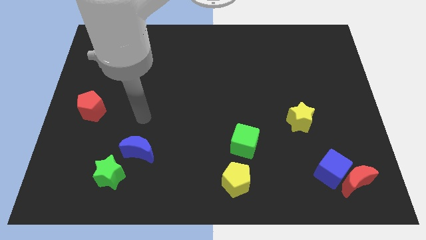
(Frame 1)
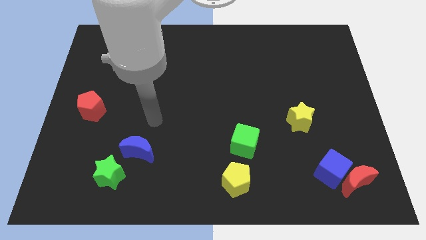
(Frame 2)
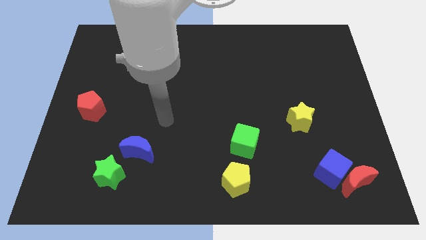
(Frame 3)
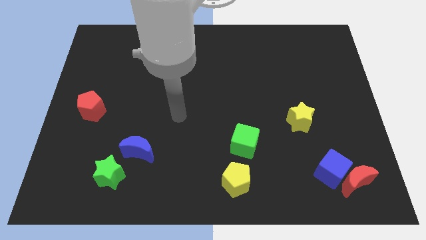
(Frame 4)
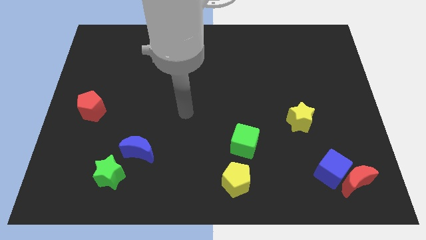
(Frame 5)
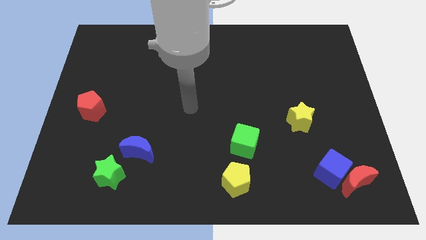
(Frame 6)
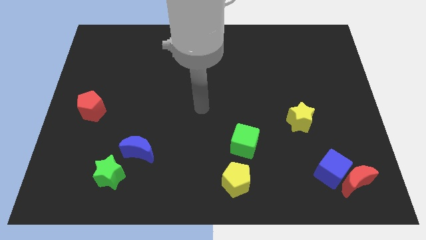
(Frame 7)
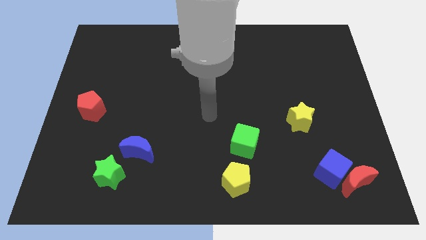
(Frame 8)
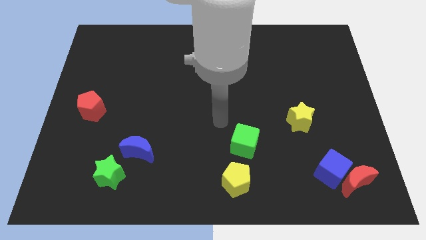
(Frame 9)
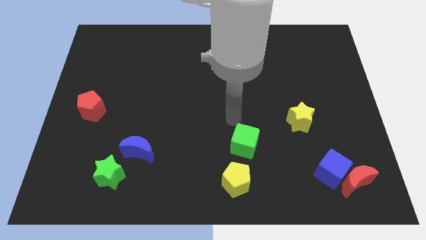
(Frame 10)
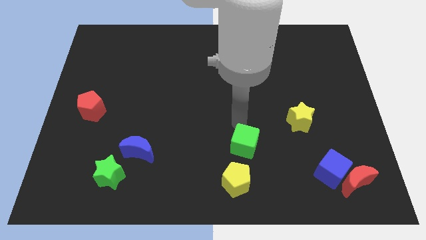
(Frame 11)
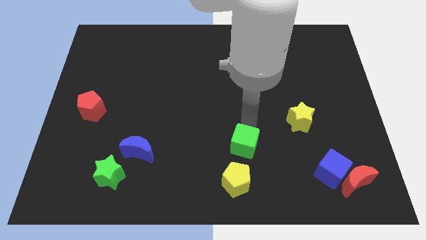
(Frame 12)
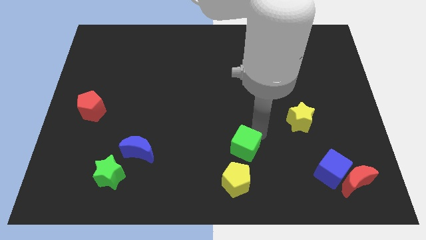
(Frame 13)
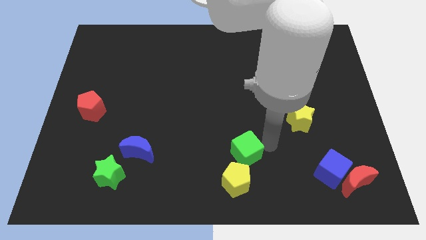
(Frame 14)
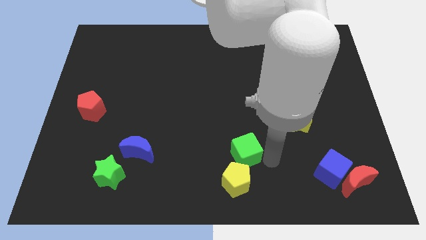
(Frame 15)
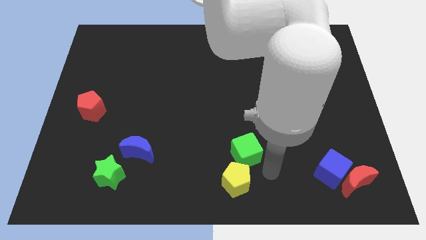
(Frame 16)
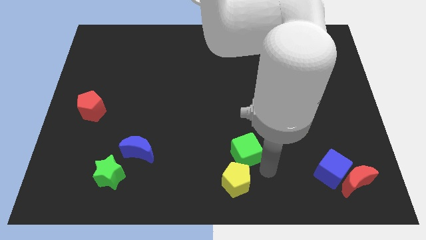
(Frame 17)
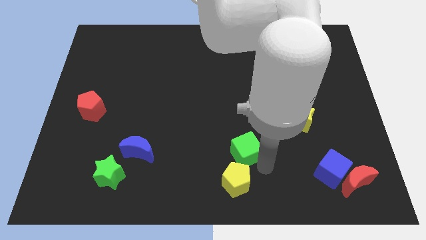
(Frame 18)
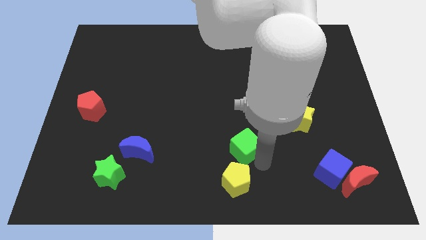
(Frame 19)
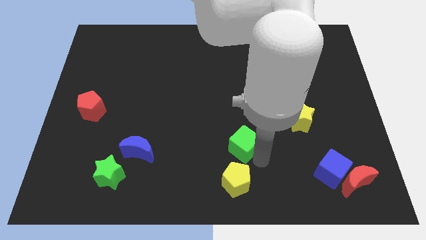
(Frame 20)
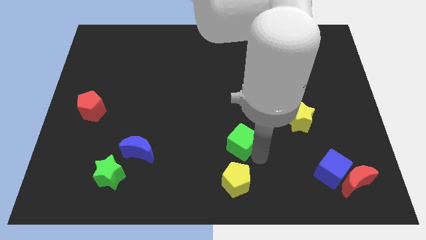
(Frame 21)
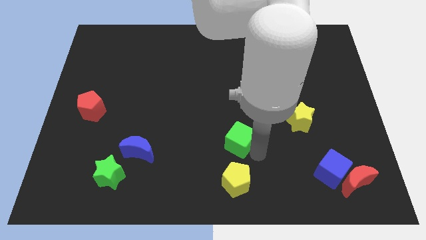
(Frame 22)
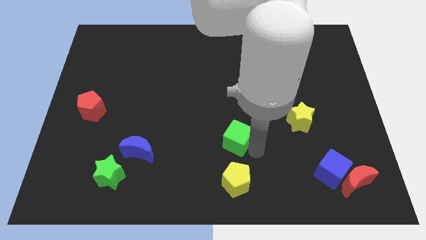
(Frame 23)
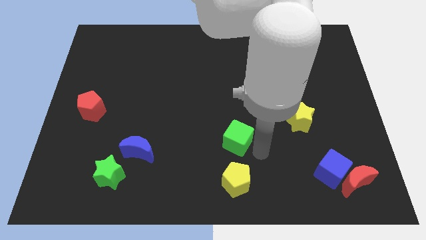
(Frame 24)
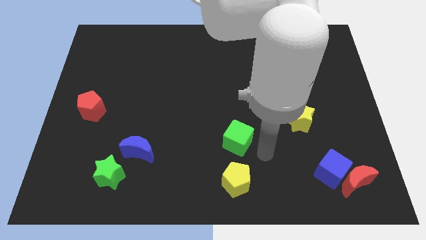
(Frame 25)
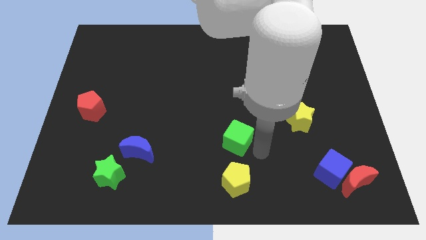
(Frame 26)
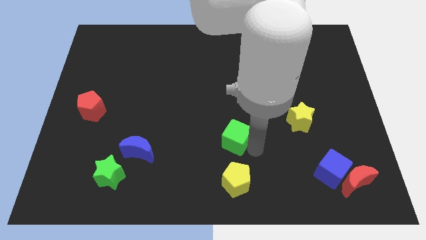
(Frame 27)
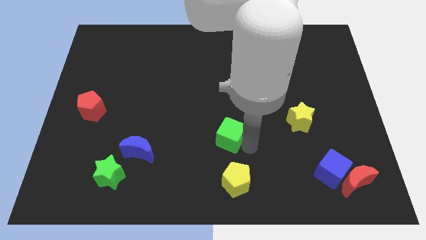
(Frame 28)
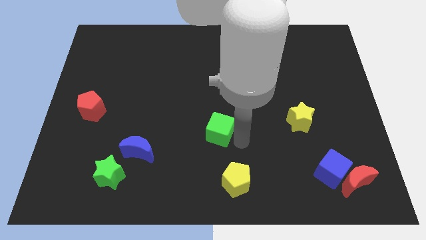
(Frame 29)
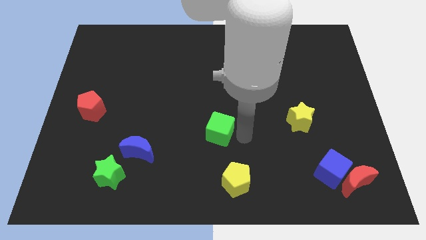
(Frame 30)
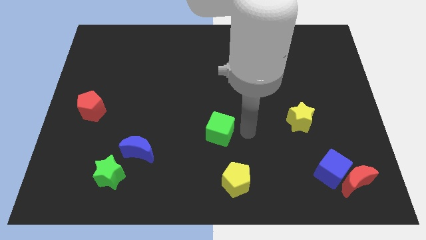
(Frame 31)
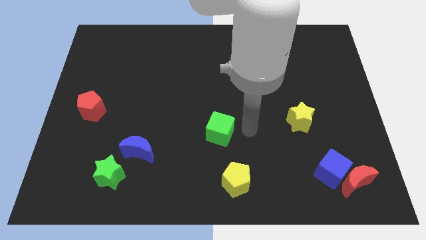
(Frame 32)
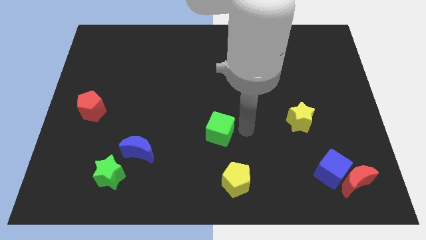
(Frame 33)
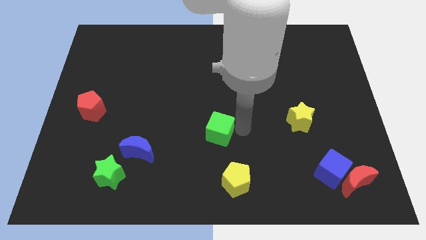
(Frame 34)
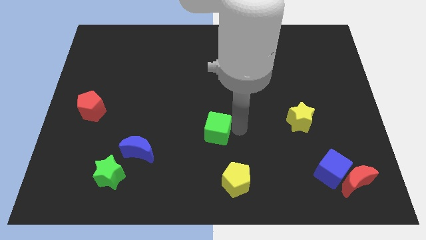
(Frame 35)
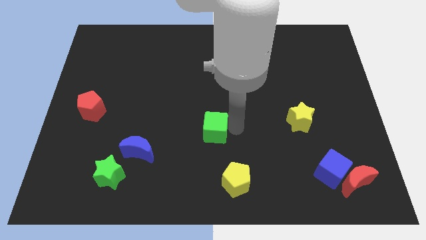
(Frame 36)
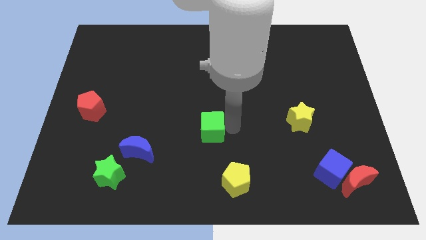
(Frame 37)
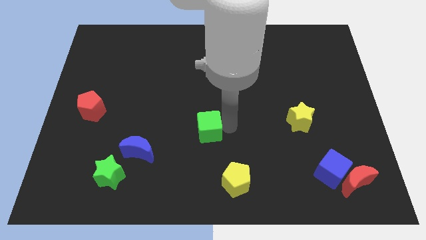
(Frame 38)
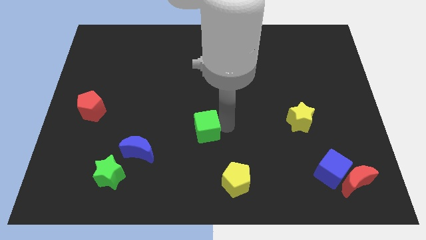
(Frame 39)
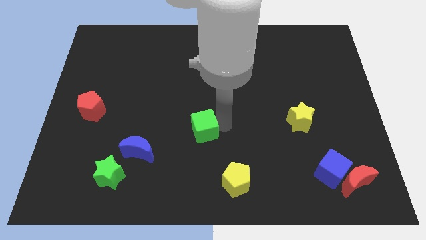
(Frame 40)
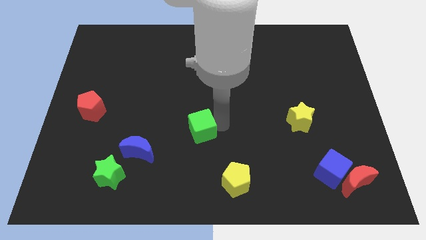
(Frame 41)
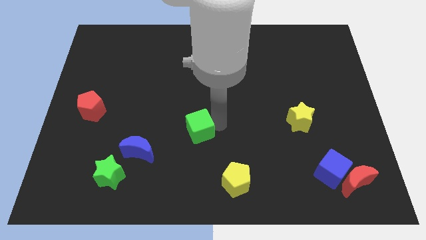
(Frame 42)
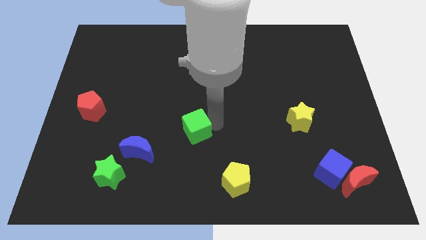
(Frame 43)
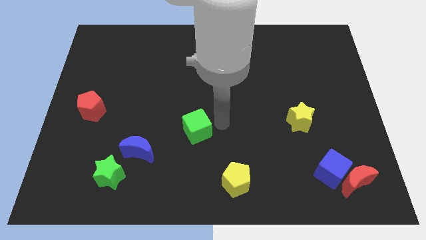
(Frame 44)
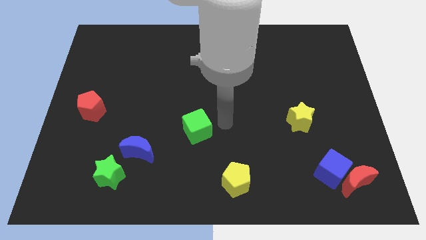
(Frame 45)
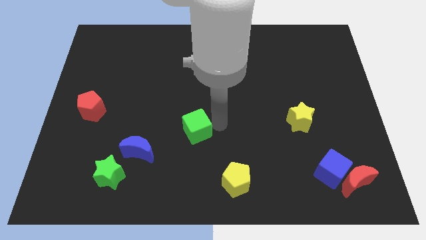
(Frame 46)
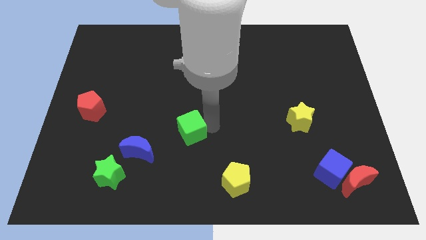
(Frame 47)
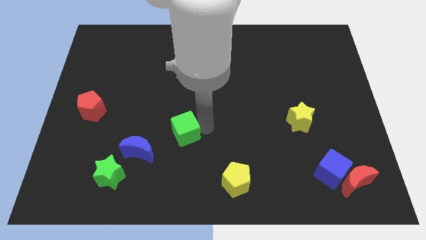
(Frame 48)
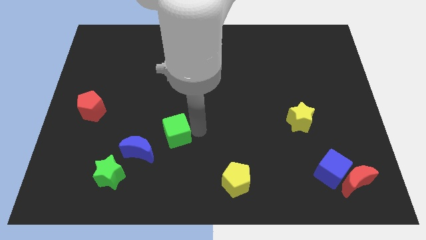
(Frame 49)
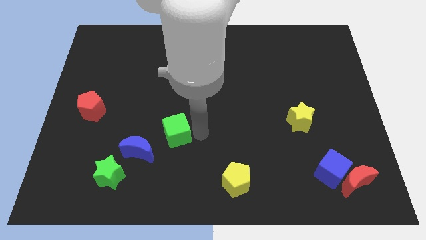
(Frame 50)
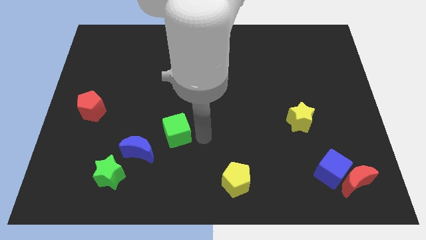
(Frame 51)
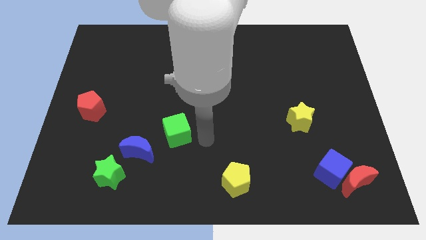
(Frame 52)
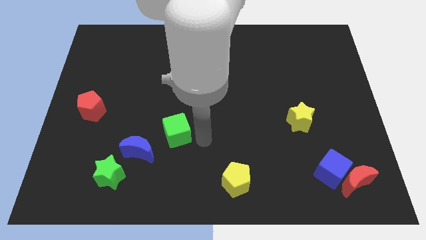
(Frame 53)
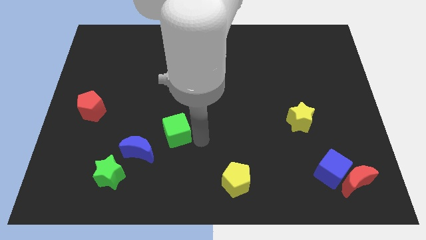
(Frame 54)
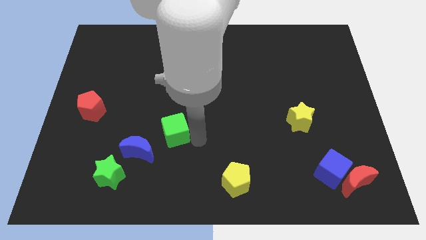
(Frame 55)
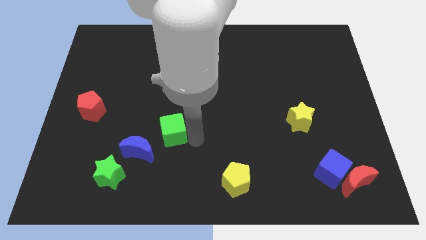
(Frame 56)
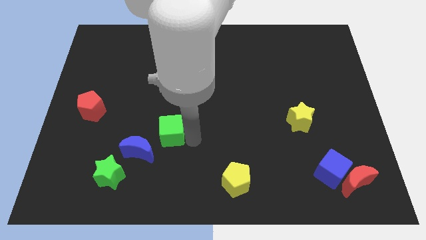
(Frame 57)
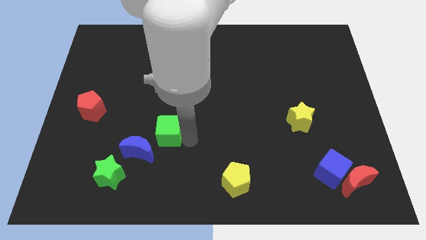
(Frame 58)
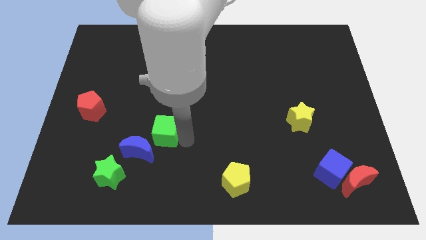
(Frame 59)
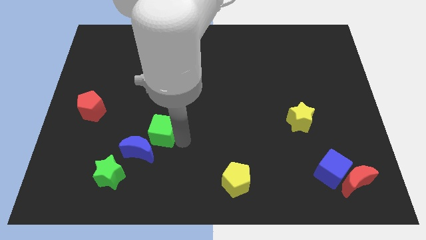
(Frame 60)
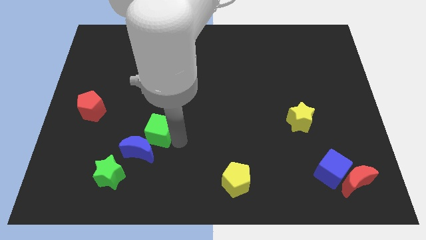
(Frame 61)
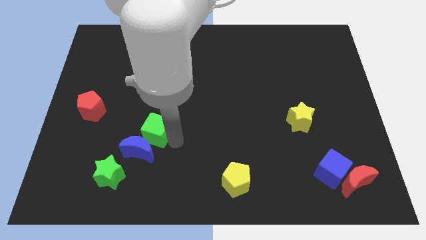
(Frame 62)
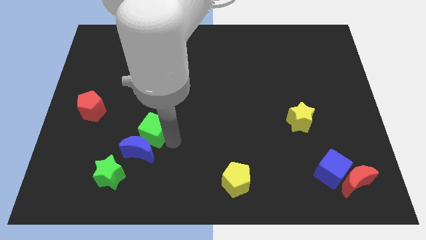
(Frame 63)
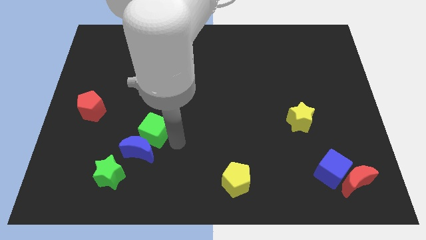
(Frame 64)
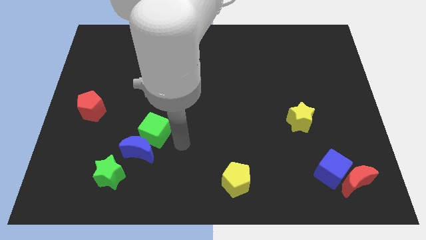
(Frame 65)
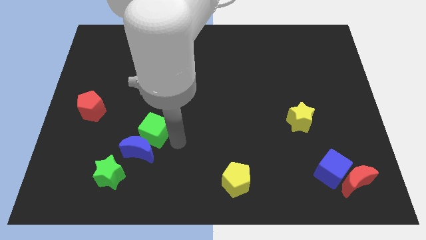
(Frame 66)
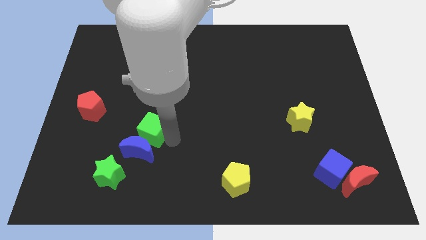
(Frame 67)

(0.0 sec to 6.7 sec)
slide the green cube left

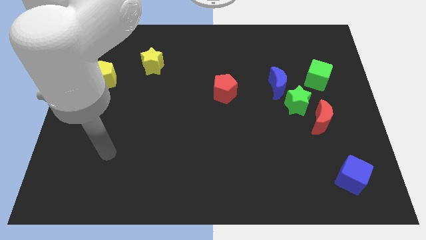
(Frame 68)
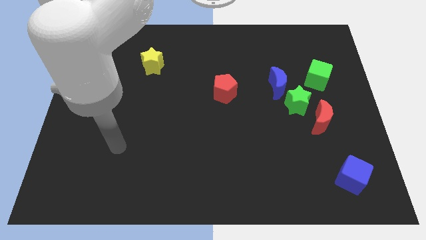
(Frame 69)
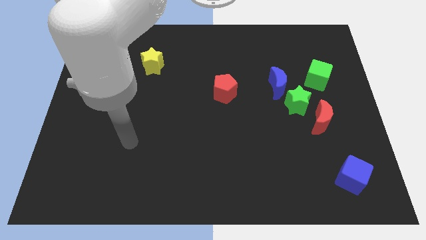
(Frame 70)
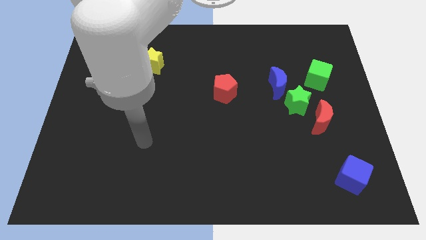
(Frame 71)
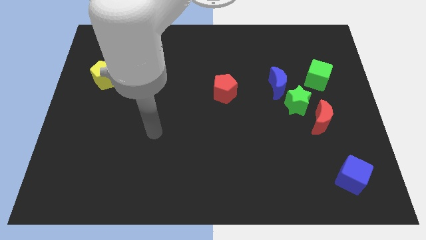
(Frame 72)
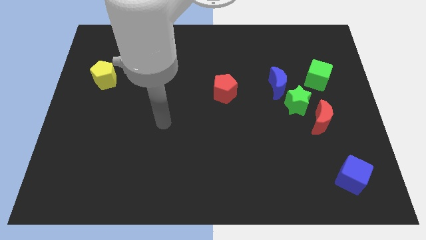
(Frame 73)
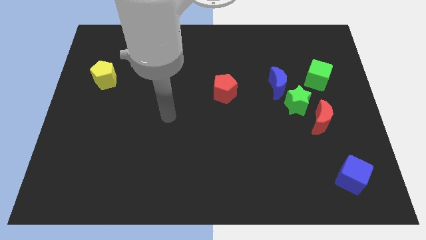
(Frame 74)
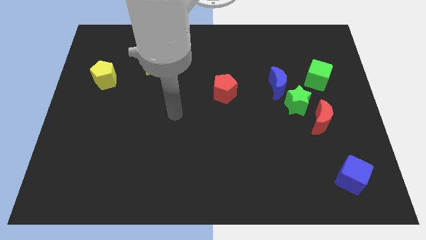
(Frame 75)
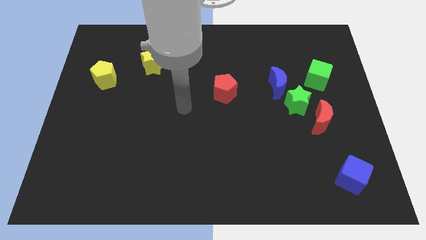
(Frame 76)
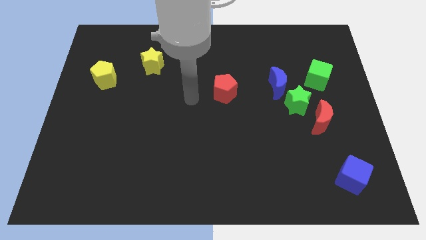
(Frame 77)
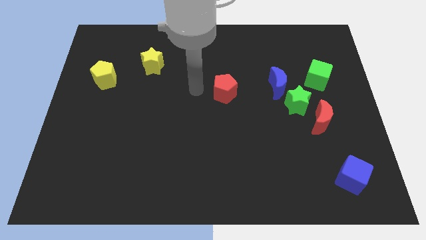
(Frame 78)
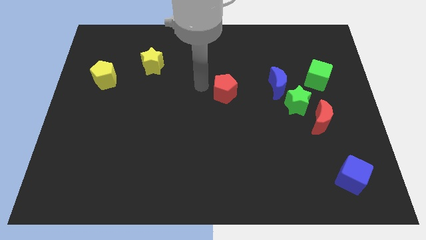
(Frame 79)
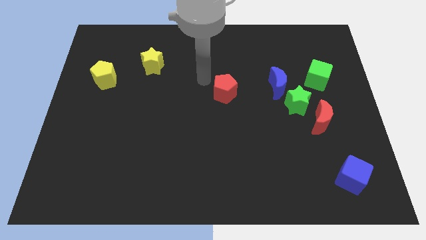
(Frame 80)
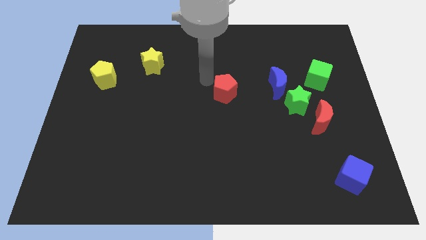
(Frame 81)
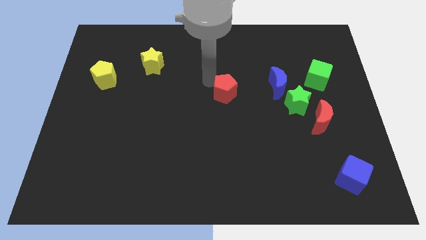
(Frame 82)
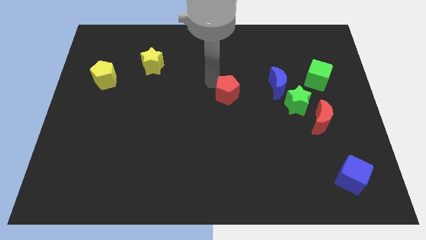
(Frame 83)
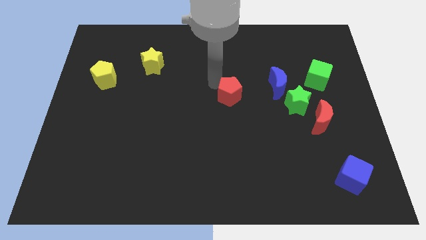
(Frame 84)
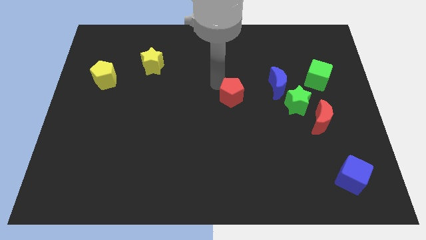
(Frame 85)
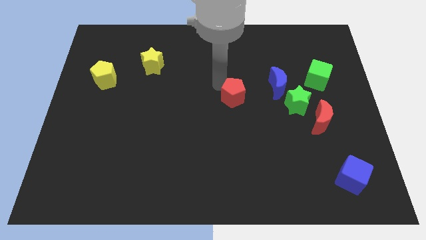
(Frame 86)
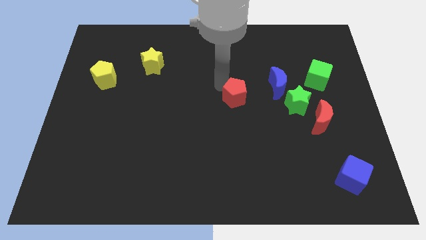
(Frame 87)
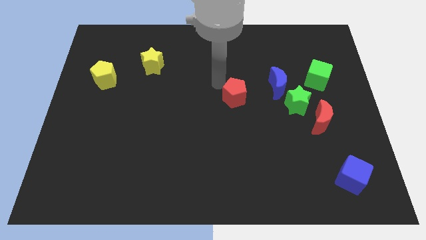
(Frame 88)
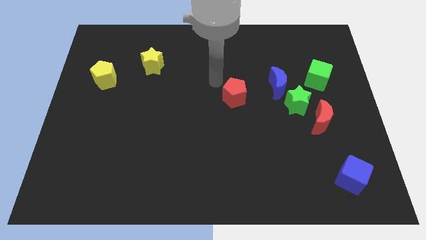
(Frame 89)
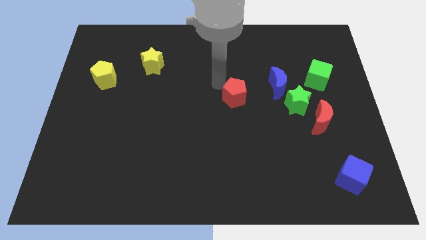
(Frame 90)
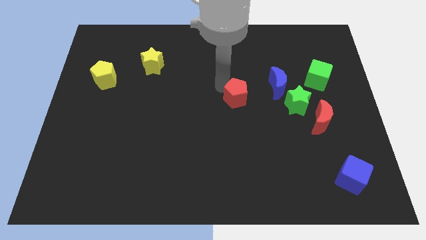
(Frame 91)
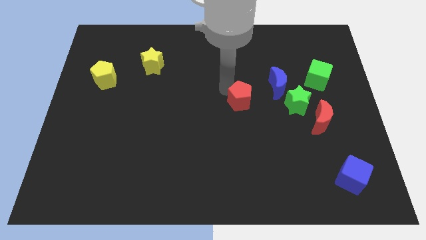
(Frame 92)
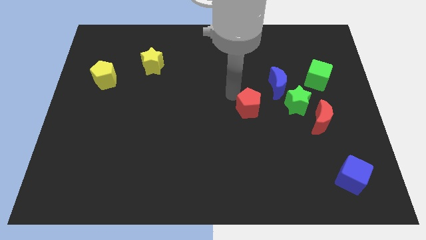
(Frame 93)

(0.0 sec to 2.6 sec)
move the red pentagon a bit diagonally down and to the right
